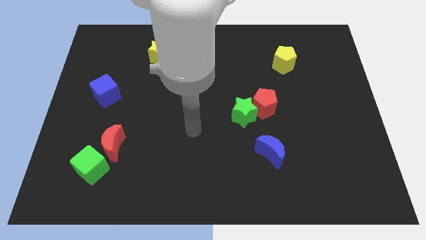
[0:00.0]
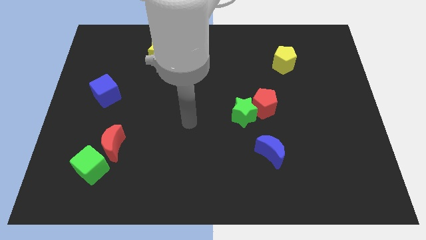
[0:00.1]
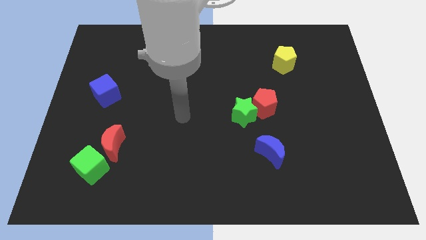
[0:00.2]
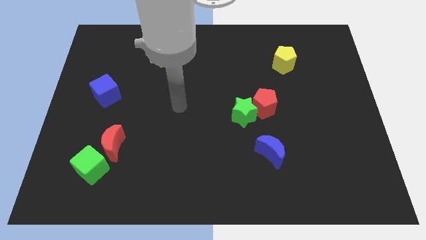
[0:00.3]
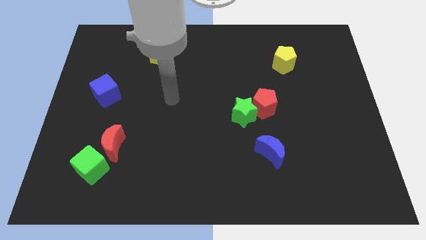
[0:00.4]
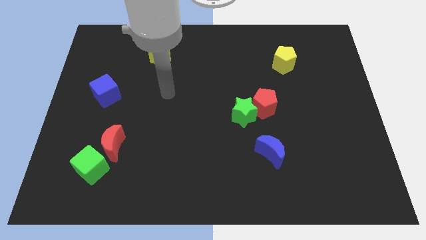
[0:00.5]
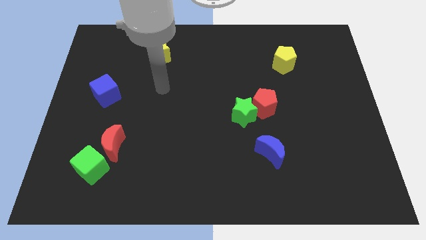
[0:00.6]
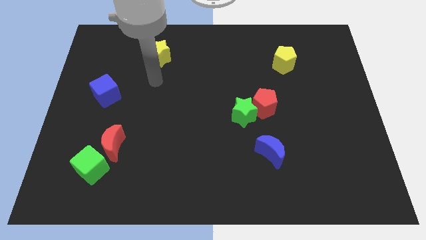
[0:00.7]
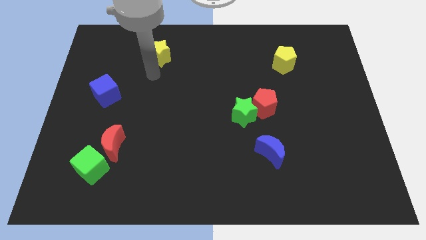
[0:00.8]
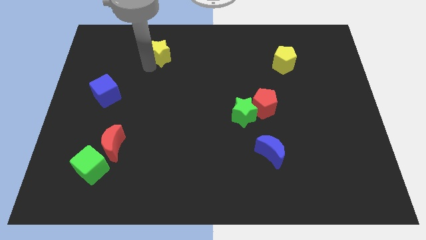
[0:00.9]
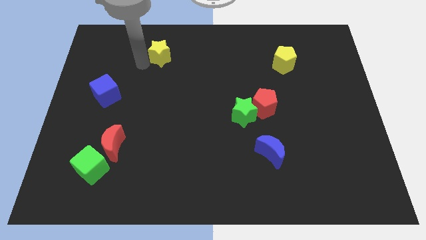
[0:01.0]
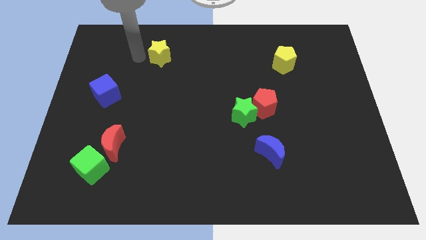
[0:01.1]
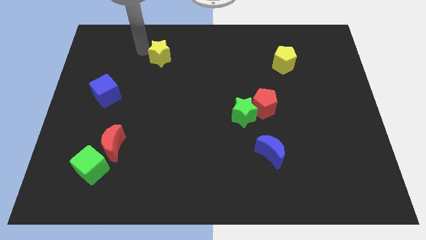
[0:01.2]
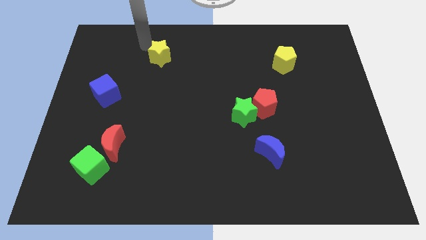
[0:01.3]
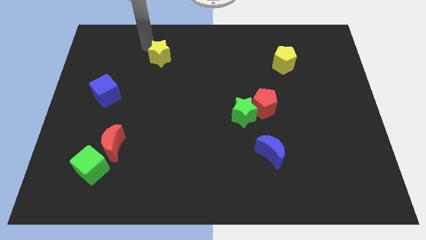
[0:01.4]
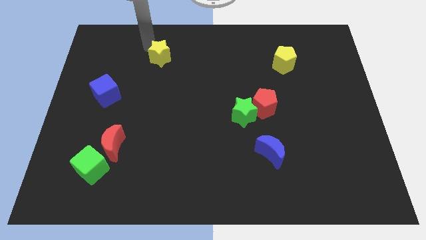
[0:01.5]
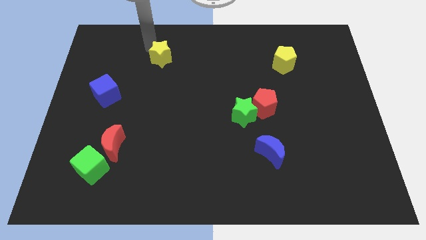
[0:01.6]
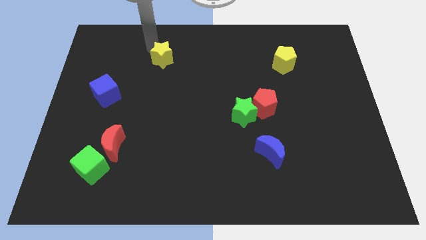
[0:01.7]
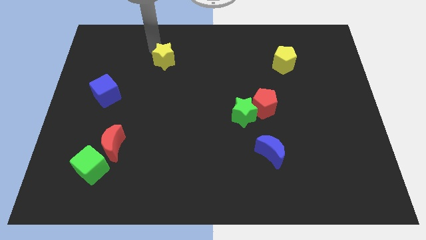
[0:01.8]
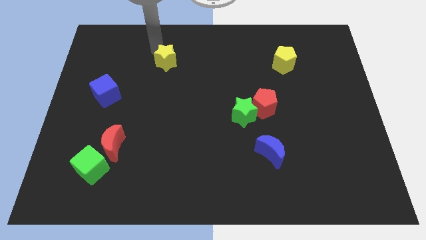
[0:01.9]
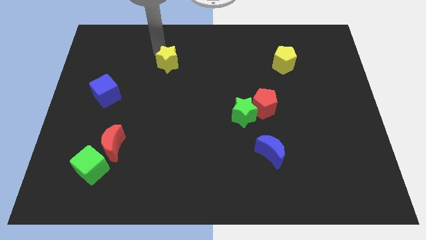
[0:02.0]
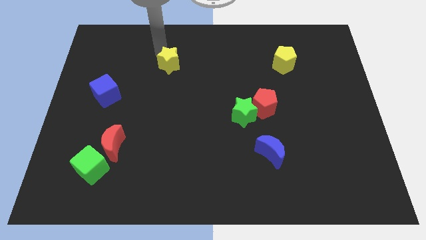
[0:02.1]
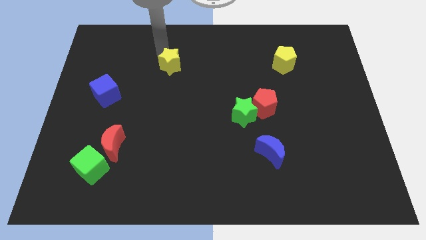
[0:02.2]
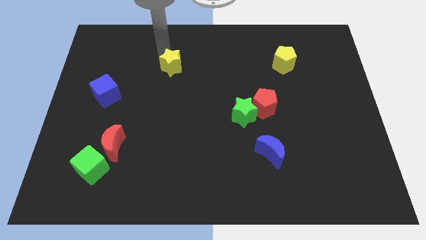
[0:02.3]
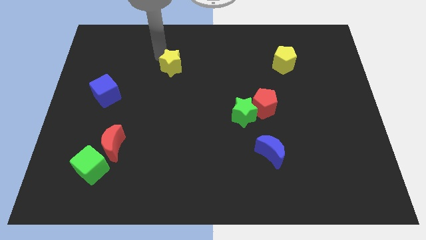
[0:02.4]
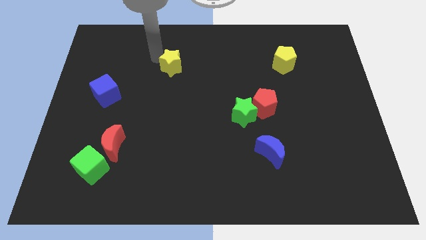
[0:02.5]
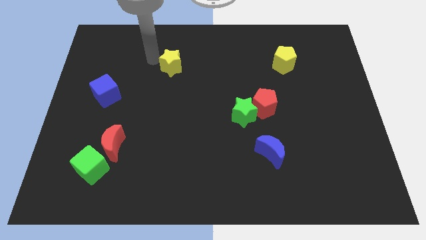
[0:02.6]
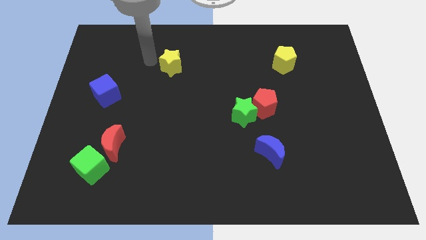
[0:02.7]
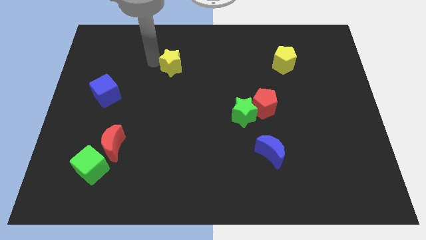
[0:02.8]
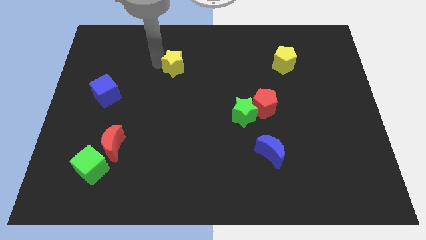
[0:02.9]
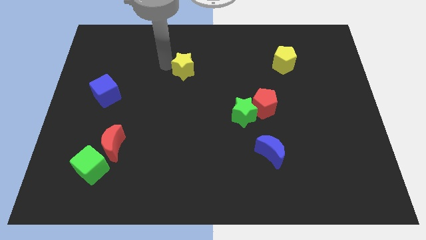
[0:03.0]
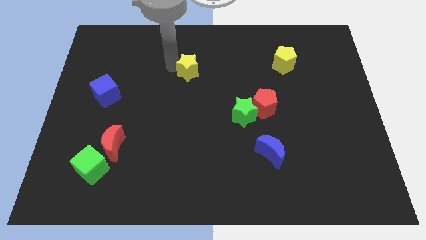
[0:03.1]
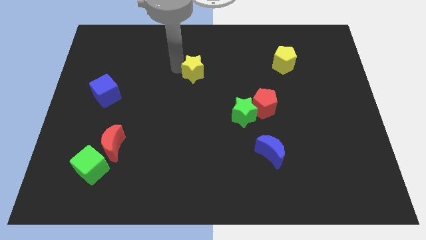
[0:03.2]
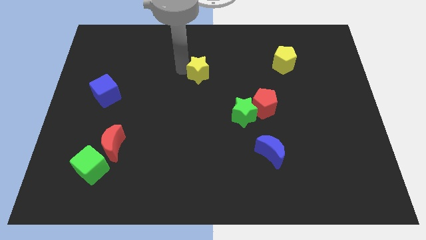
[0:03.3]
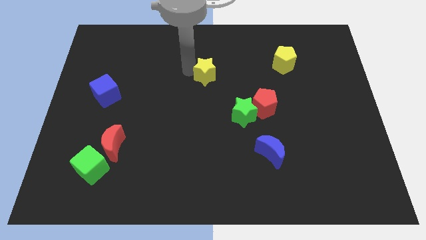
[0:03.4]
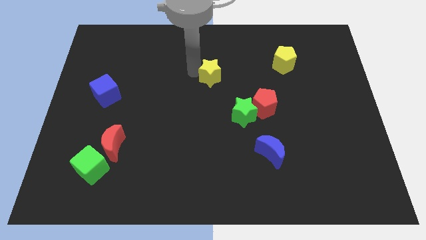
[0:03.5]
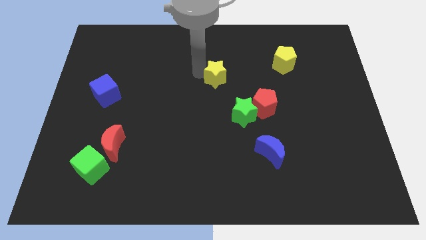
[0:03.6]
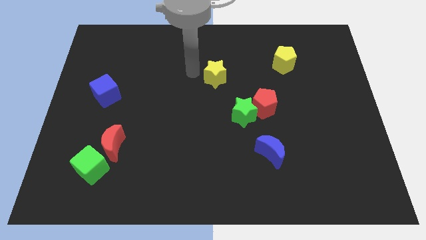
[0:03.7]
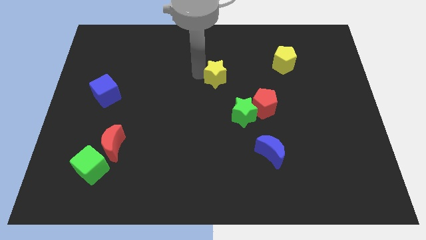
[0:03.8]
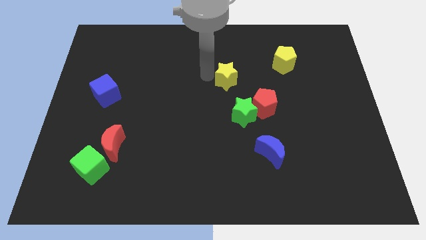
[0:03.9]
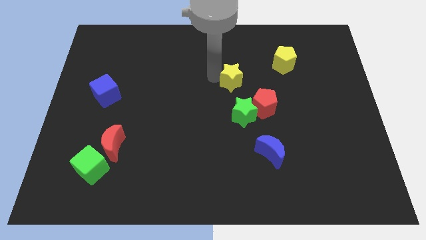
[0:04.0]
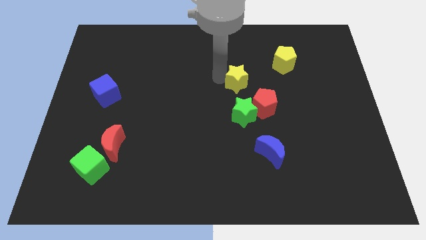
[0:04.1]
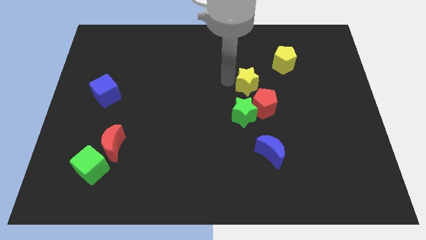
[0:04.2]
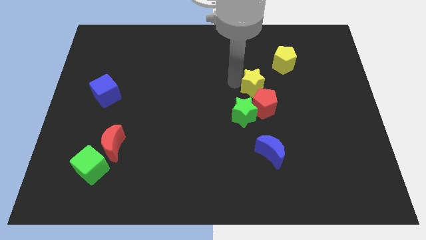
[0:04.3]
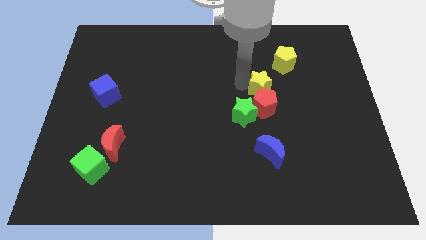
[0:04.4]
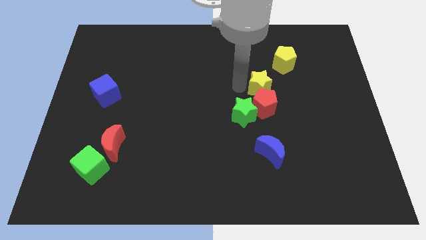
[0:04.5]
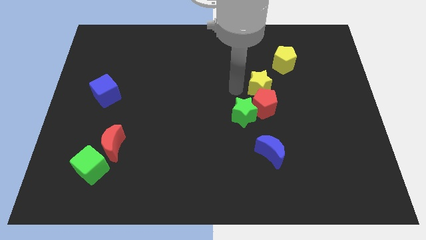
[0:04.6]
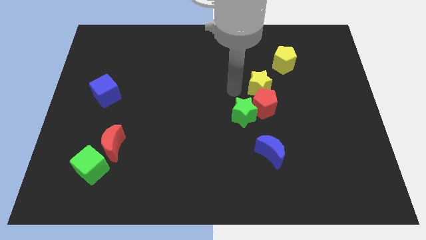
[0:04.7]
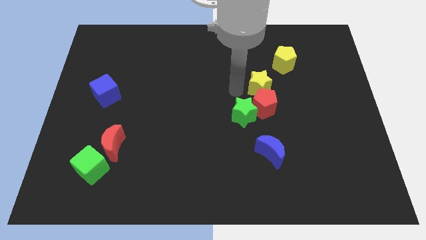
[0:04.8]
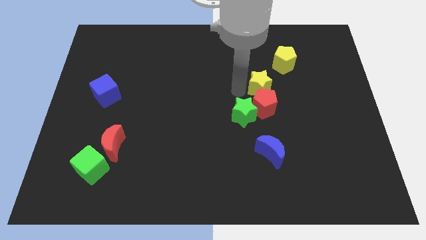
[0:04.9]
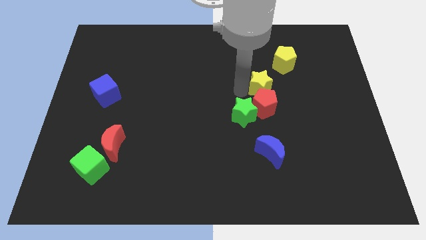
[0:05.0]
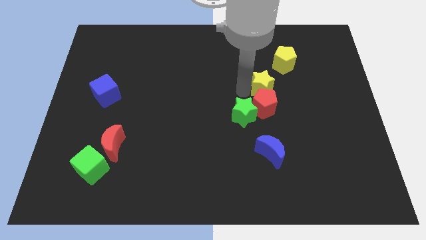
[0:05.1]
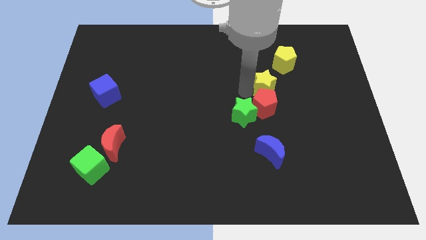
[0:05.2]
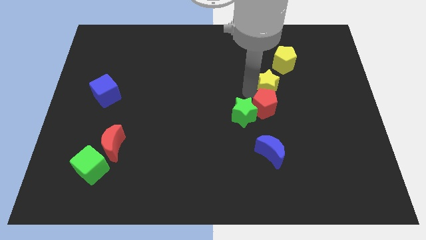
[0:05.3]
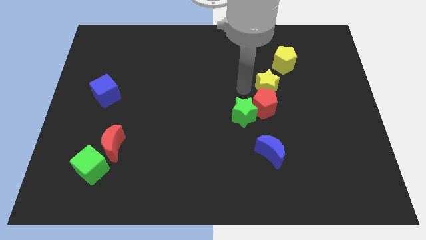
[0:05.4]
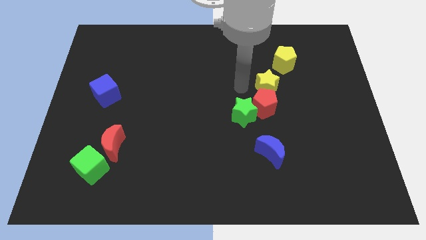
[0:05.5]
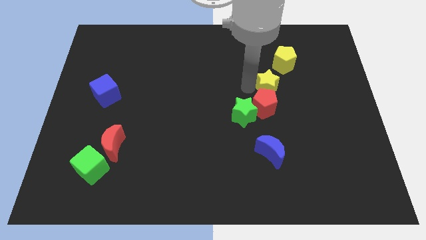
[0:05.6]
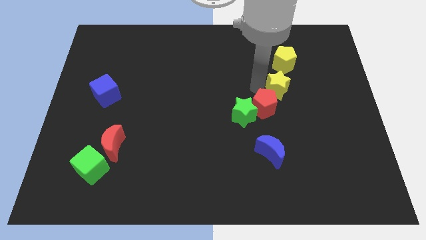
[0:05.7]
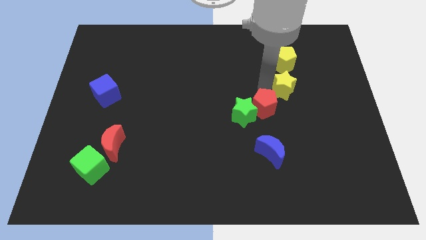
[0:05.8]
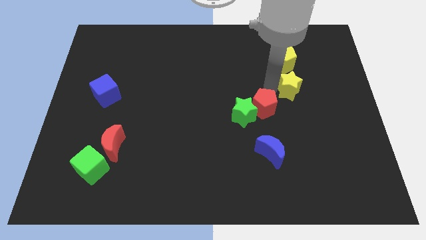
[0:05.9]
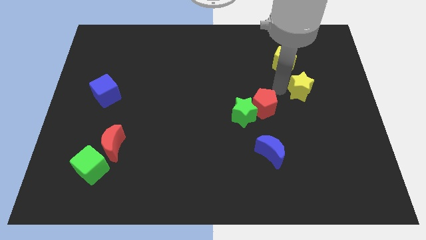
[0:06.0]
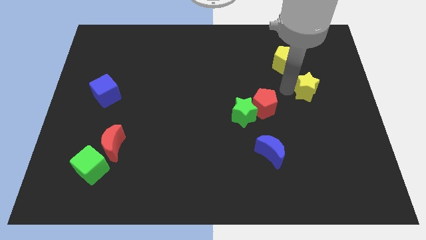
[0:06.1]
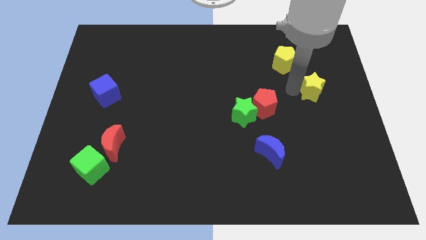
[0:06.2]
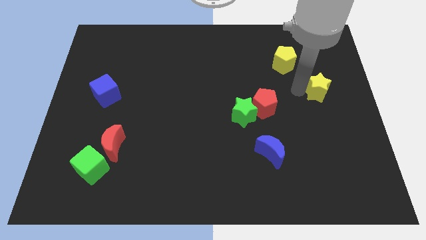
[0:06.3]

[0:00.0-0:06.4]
push the yellow star to the right side of the board

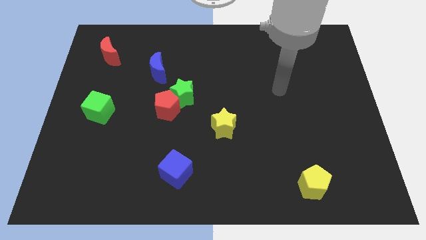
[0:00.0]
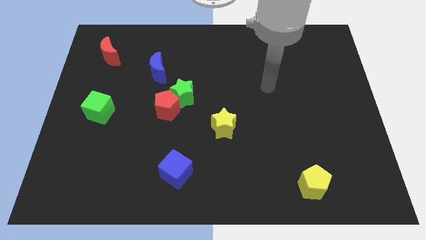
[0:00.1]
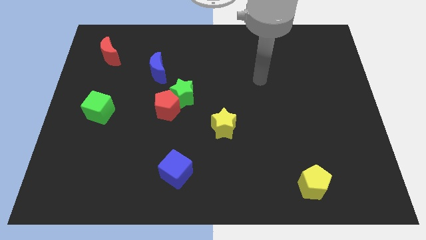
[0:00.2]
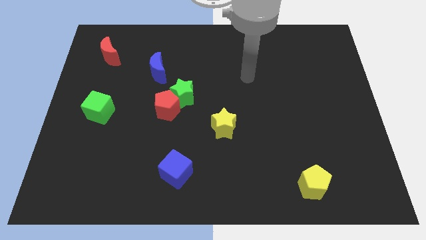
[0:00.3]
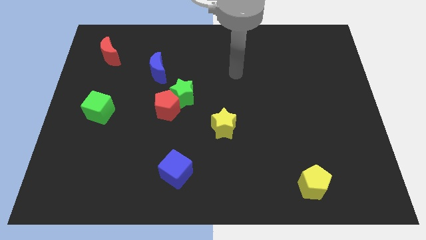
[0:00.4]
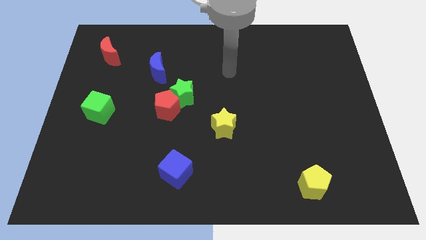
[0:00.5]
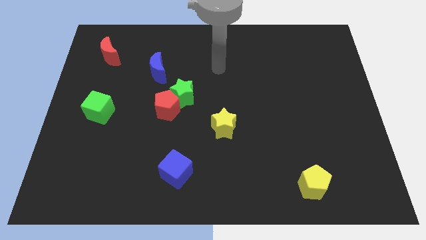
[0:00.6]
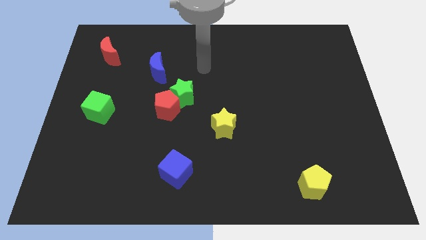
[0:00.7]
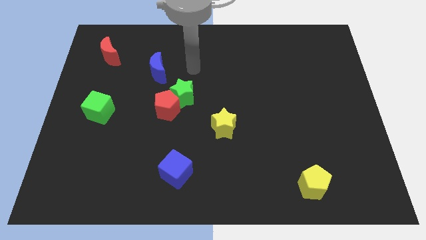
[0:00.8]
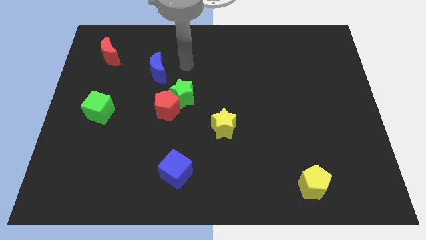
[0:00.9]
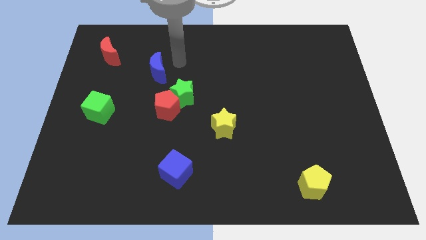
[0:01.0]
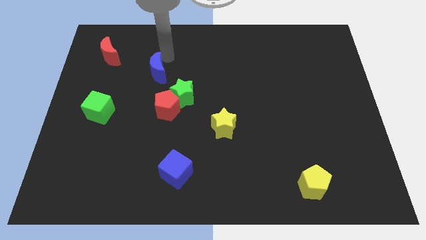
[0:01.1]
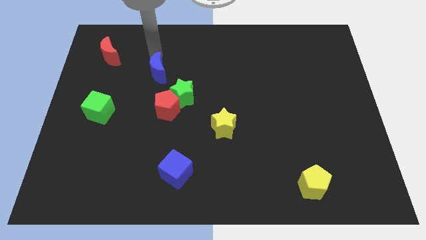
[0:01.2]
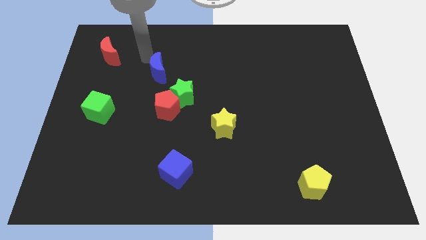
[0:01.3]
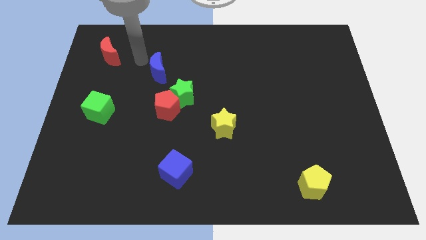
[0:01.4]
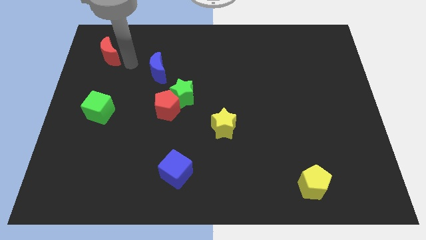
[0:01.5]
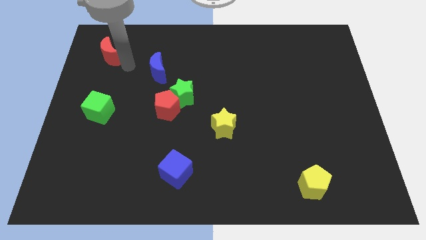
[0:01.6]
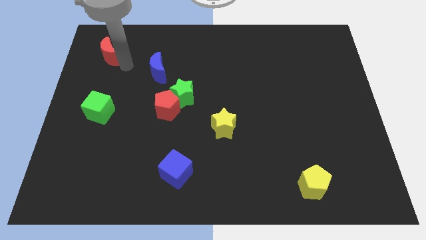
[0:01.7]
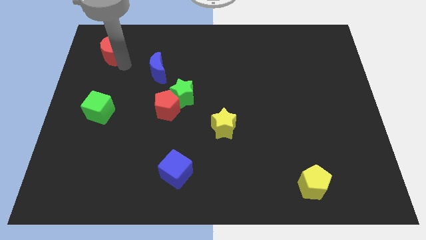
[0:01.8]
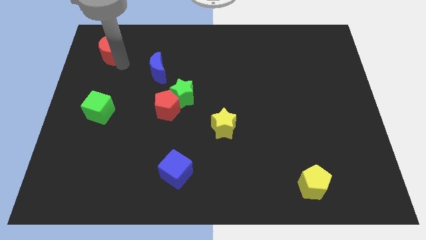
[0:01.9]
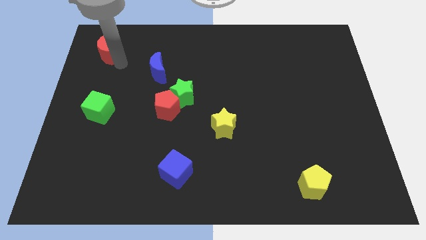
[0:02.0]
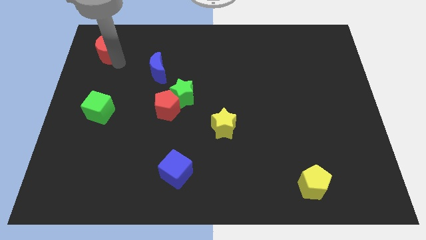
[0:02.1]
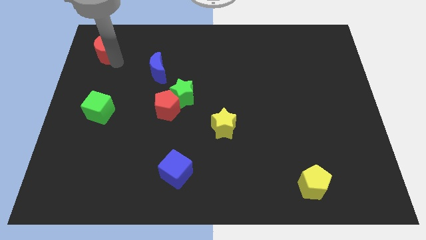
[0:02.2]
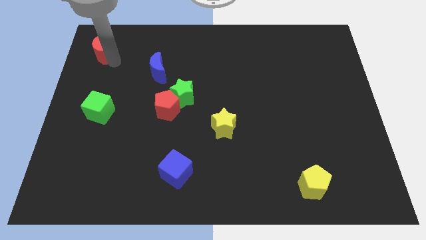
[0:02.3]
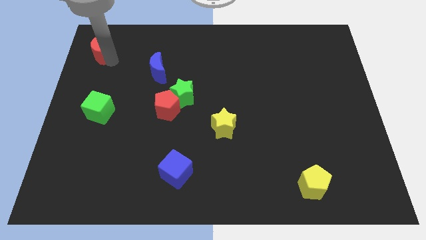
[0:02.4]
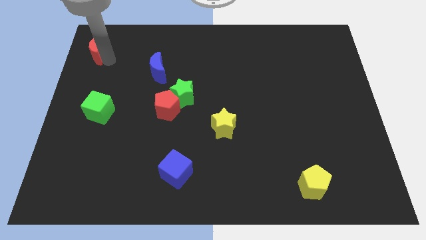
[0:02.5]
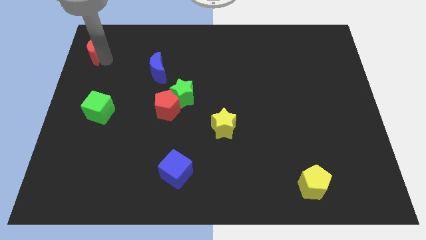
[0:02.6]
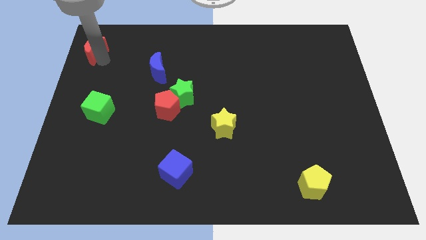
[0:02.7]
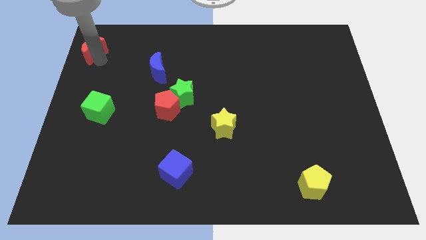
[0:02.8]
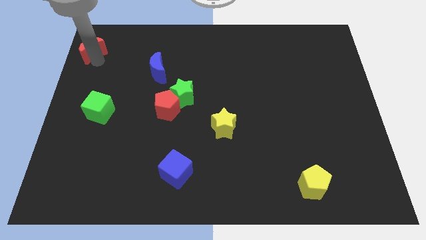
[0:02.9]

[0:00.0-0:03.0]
slide the red moon to the top left of the board
